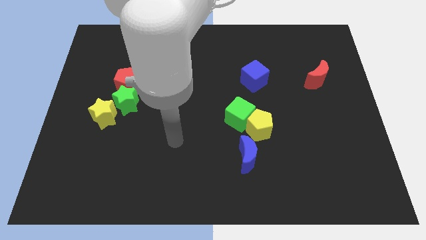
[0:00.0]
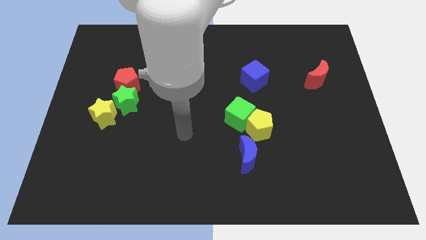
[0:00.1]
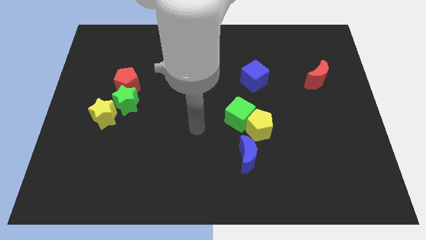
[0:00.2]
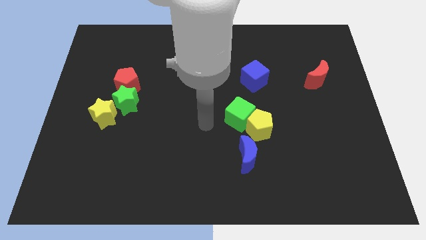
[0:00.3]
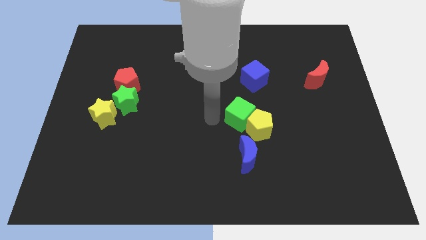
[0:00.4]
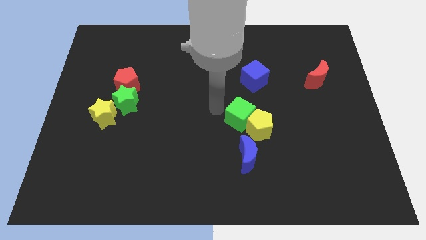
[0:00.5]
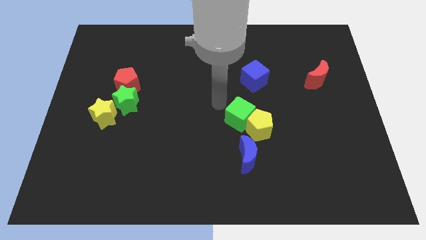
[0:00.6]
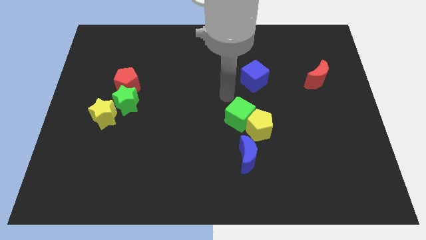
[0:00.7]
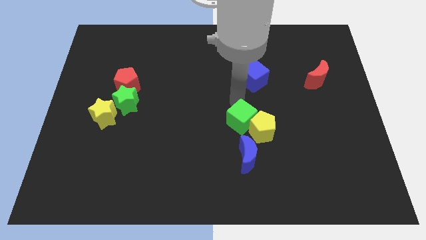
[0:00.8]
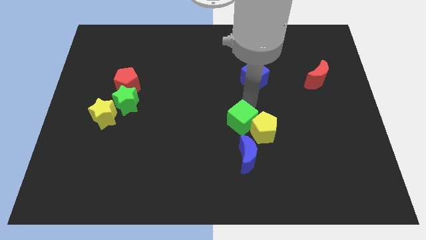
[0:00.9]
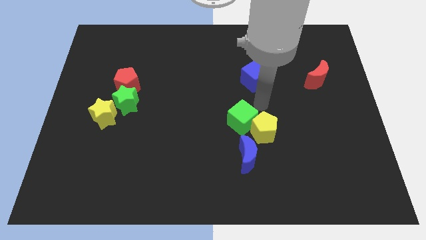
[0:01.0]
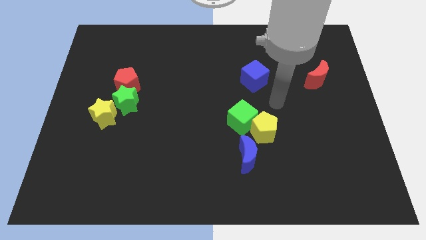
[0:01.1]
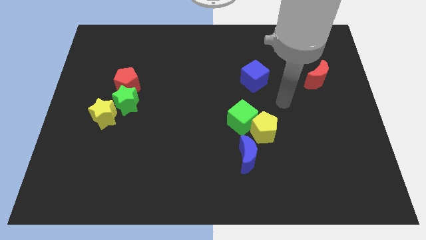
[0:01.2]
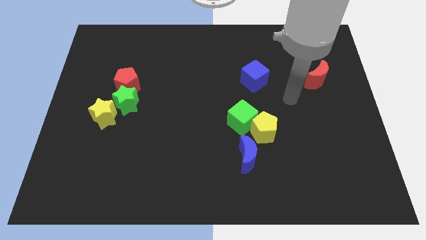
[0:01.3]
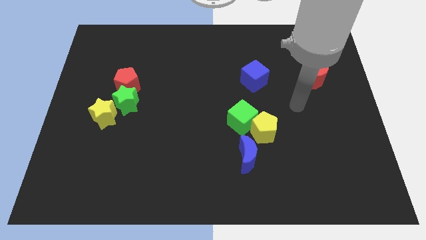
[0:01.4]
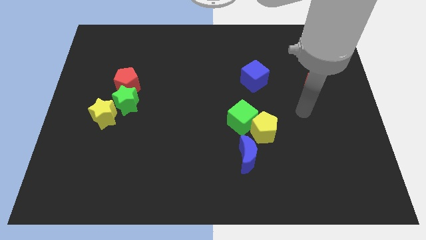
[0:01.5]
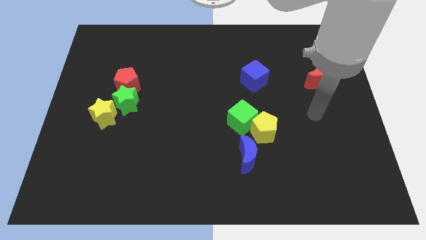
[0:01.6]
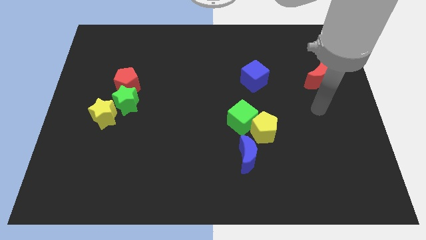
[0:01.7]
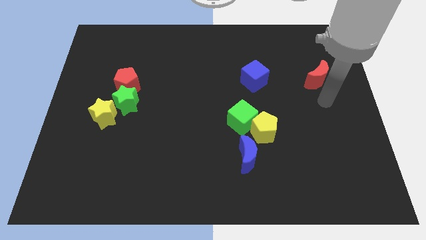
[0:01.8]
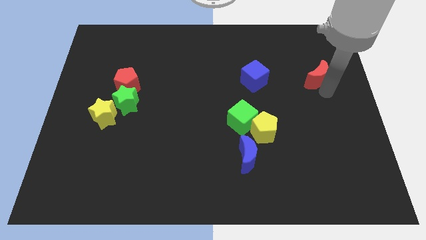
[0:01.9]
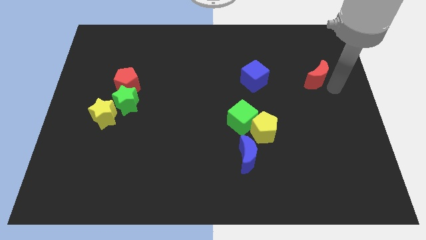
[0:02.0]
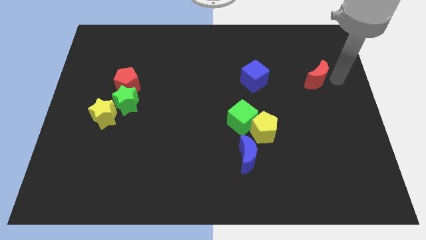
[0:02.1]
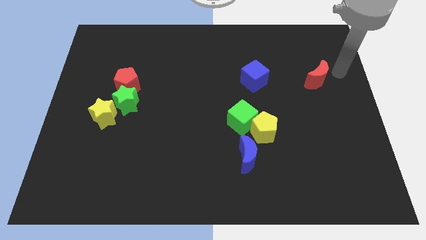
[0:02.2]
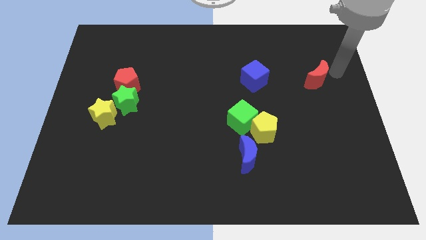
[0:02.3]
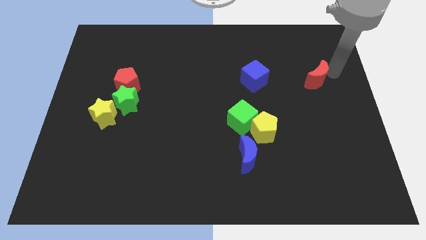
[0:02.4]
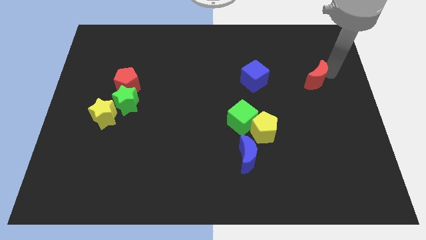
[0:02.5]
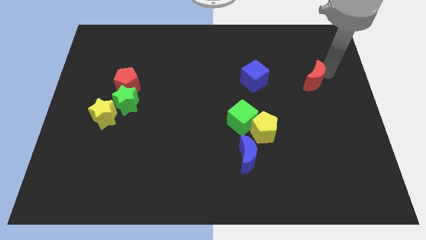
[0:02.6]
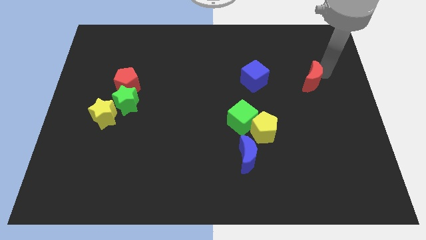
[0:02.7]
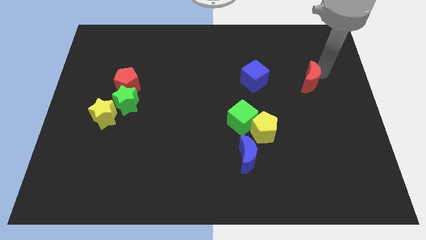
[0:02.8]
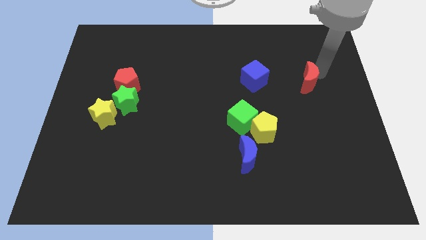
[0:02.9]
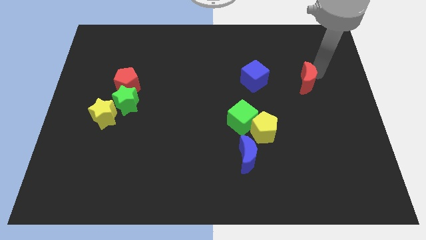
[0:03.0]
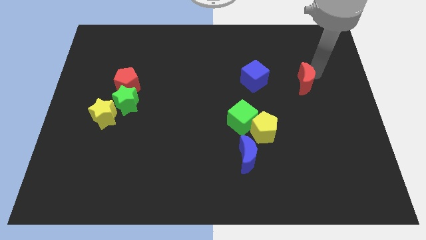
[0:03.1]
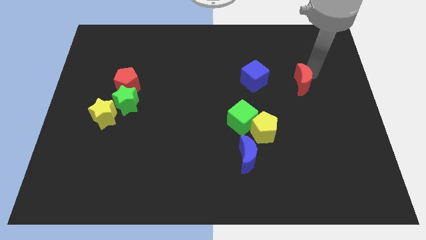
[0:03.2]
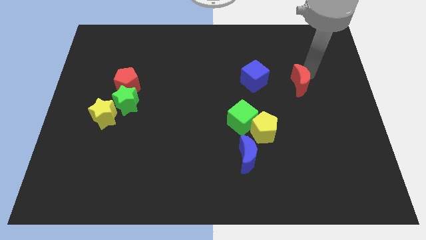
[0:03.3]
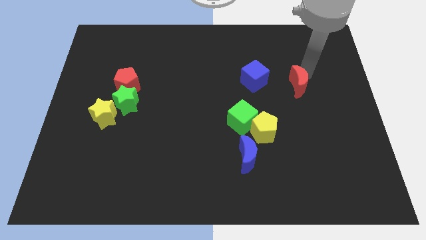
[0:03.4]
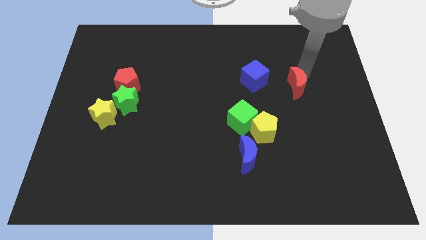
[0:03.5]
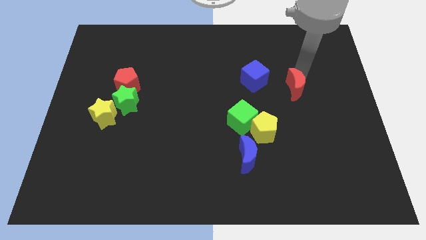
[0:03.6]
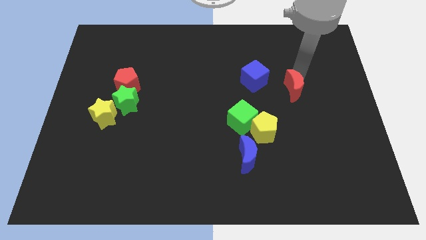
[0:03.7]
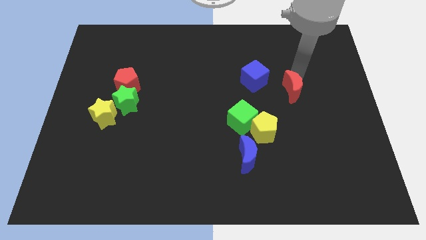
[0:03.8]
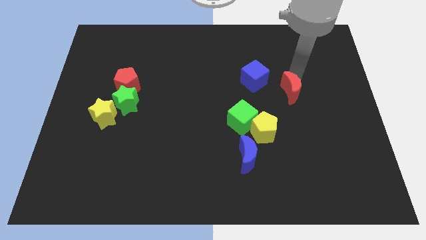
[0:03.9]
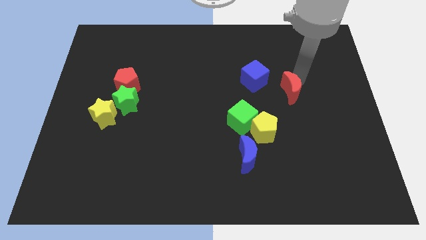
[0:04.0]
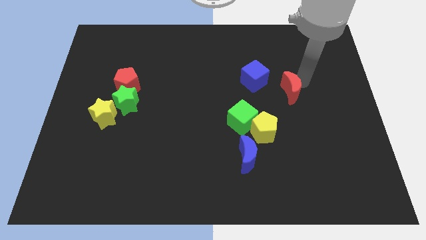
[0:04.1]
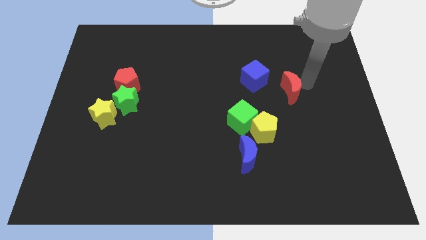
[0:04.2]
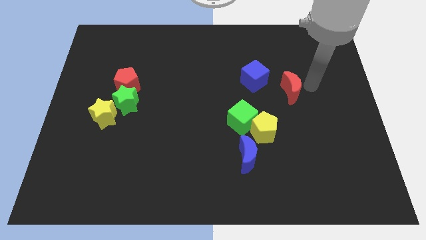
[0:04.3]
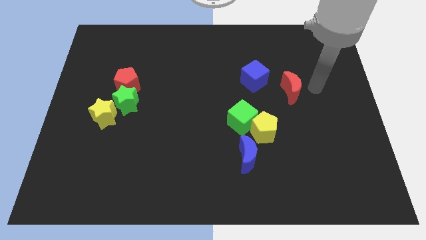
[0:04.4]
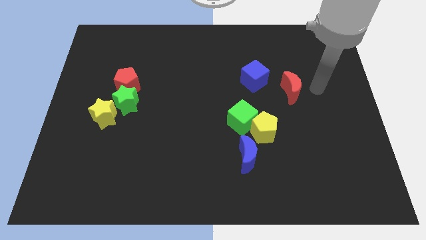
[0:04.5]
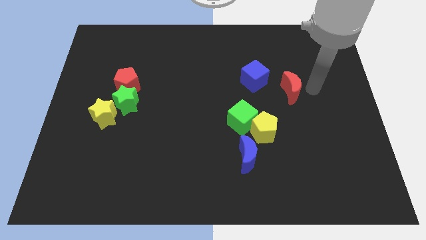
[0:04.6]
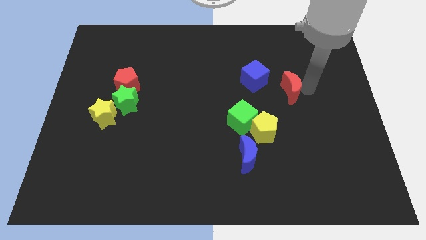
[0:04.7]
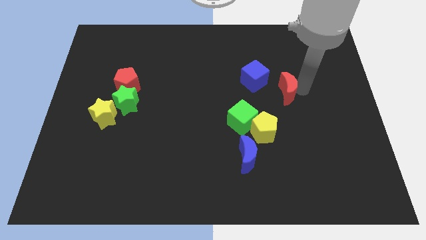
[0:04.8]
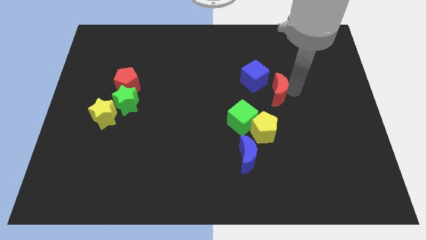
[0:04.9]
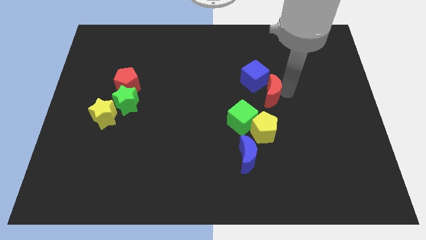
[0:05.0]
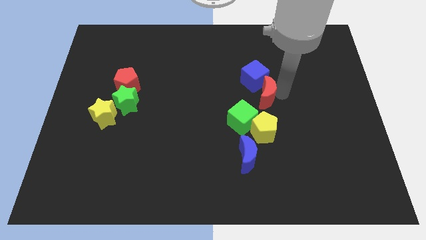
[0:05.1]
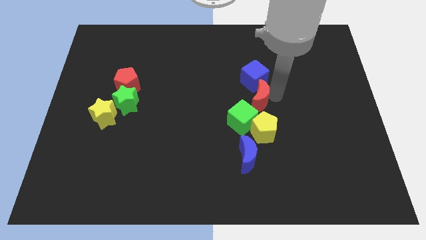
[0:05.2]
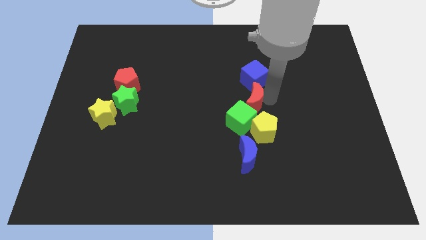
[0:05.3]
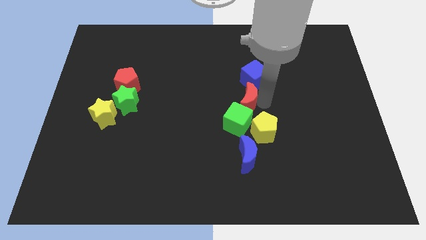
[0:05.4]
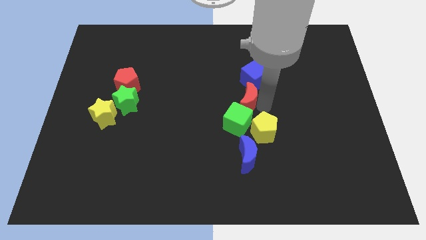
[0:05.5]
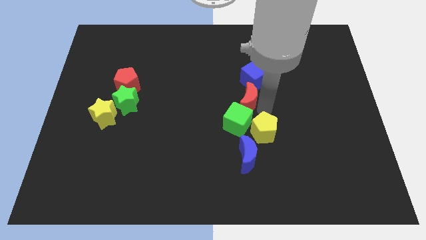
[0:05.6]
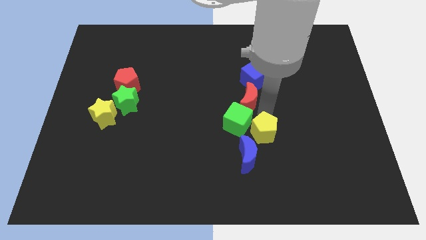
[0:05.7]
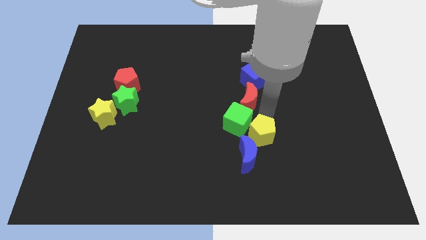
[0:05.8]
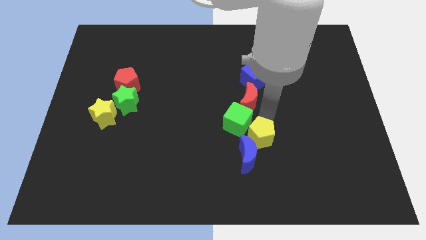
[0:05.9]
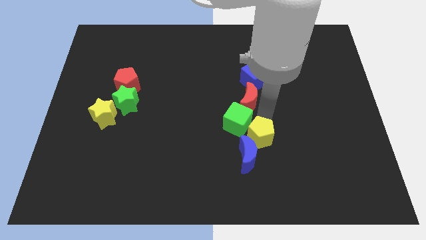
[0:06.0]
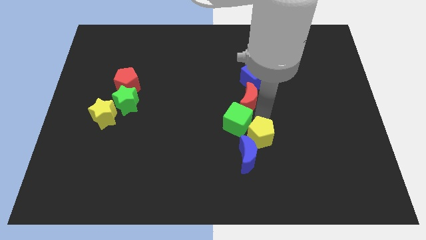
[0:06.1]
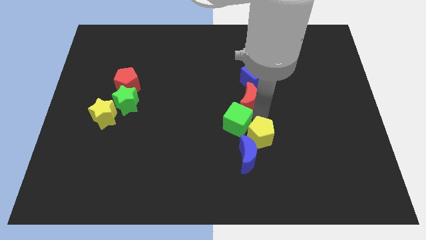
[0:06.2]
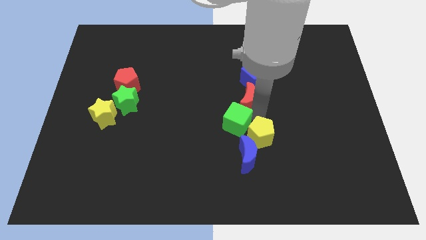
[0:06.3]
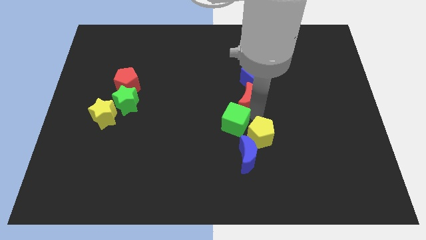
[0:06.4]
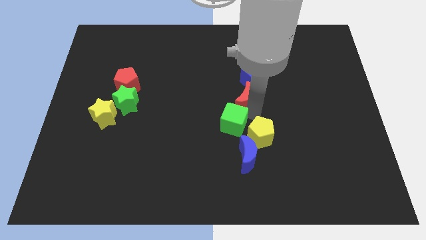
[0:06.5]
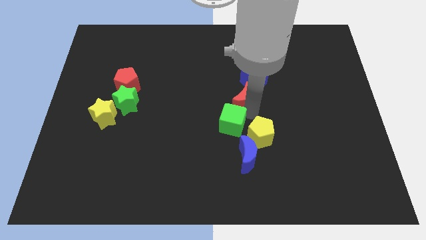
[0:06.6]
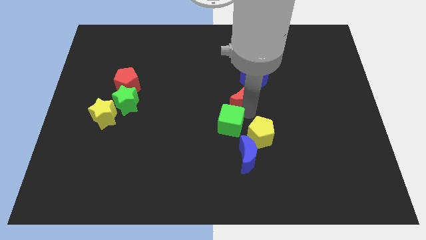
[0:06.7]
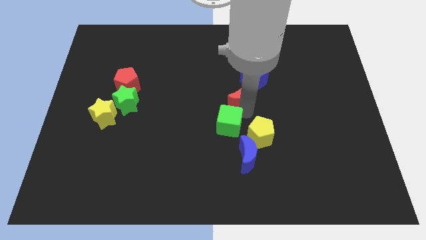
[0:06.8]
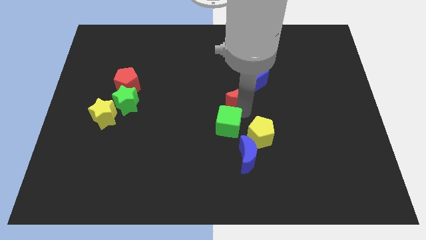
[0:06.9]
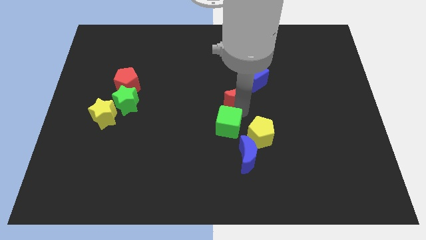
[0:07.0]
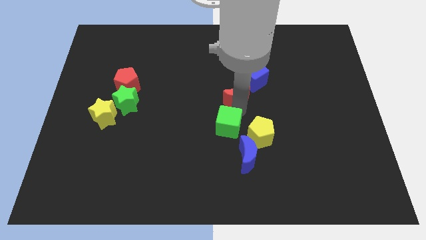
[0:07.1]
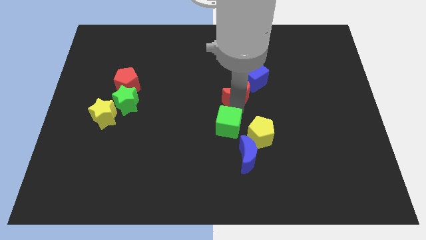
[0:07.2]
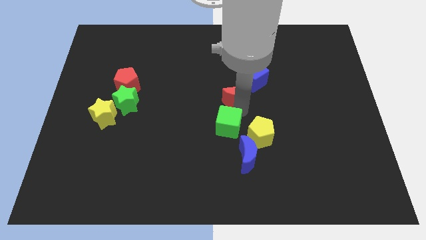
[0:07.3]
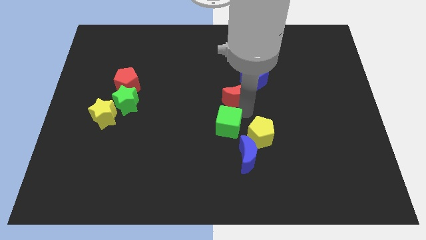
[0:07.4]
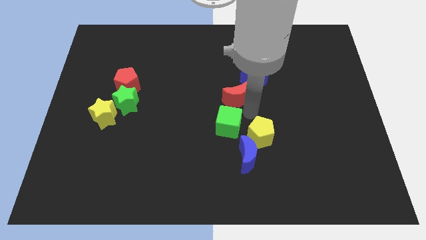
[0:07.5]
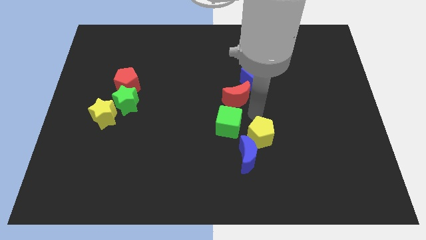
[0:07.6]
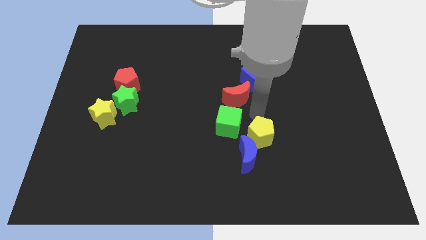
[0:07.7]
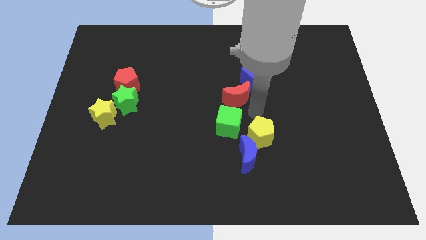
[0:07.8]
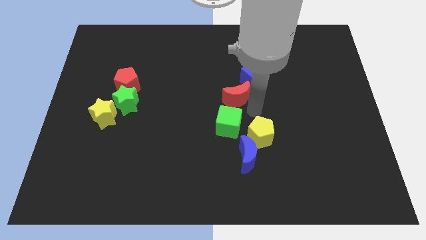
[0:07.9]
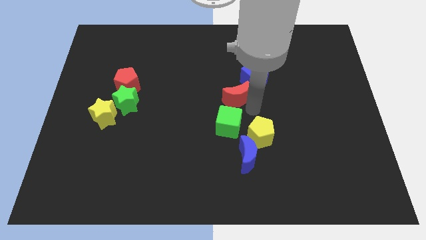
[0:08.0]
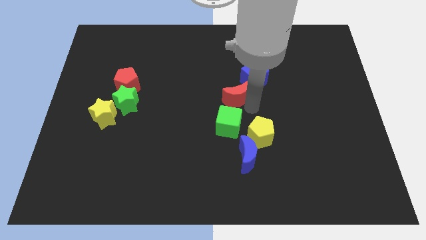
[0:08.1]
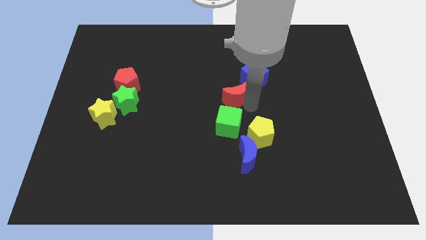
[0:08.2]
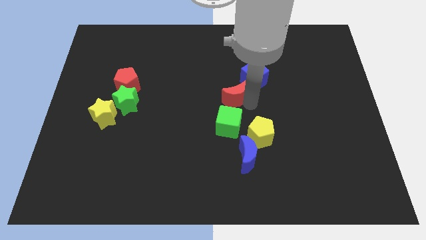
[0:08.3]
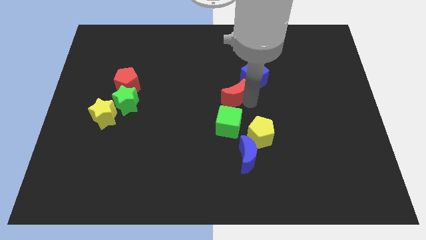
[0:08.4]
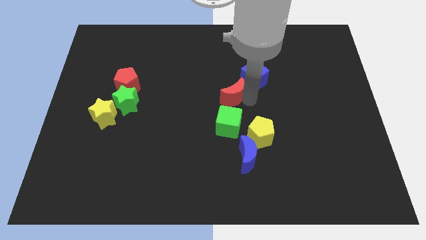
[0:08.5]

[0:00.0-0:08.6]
slide the red moon to the left
